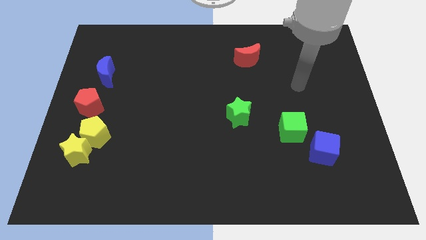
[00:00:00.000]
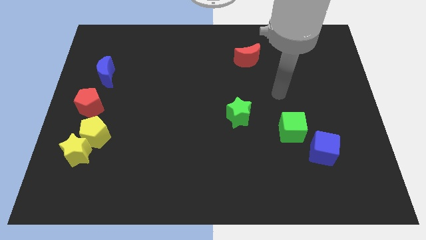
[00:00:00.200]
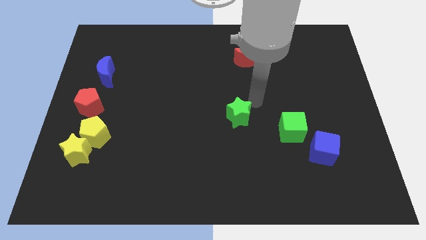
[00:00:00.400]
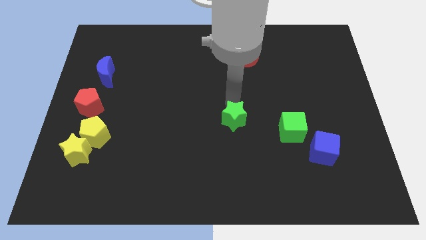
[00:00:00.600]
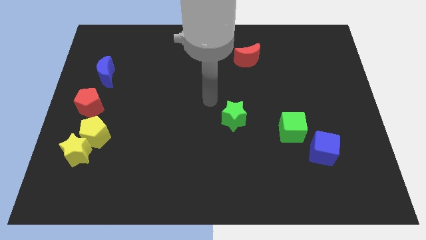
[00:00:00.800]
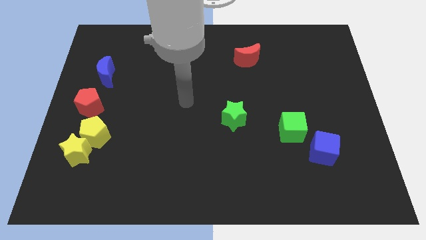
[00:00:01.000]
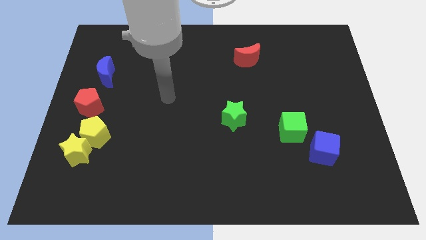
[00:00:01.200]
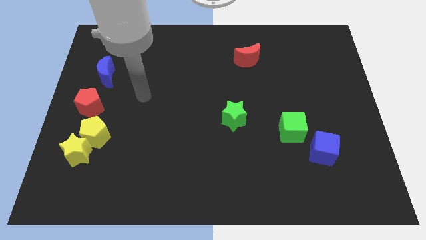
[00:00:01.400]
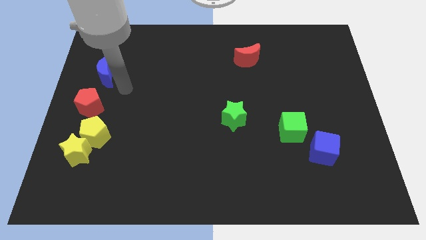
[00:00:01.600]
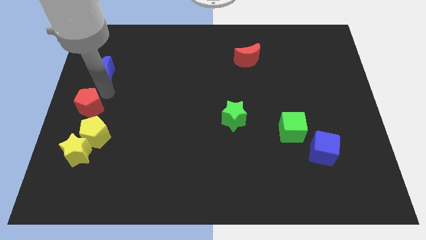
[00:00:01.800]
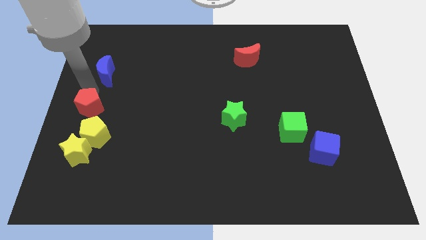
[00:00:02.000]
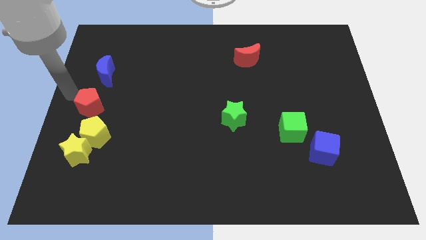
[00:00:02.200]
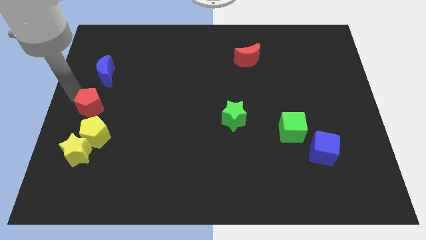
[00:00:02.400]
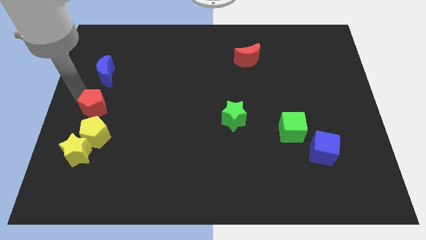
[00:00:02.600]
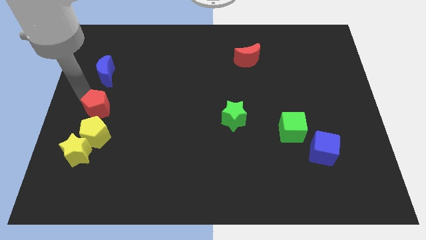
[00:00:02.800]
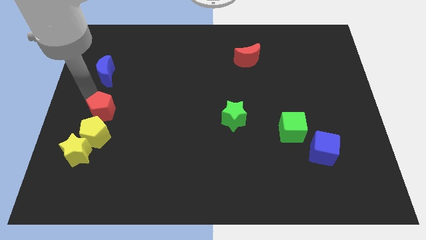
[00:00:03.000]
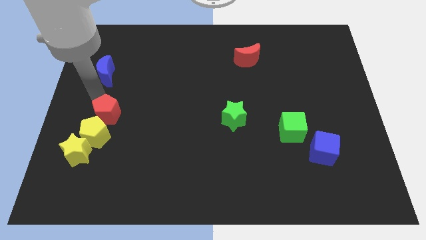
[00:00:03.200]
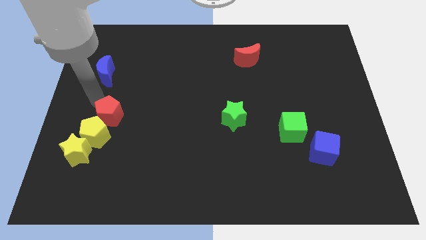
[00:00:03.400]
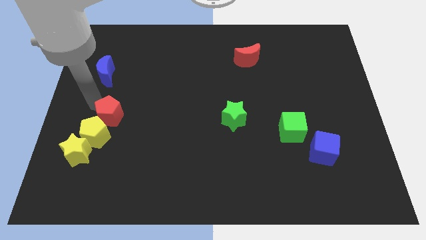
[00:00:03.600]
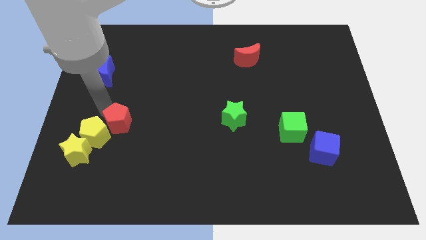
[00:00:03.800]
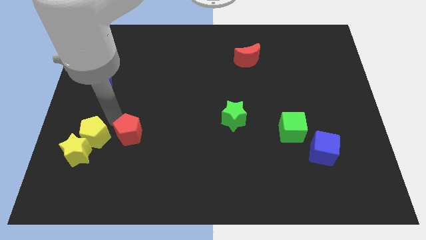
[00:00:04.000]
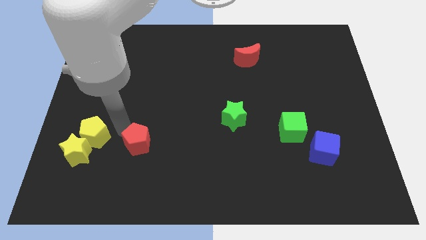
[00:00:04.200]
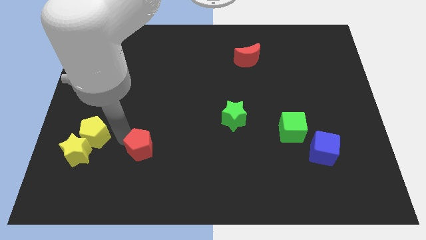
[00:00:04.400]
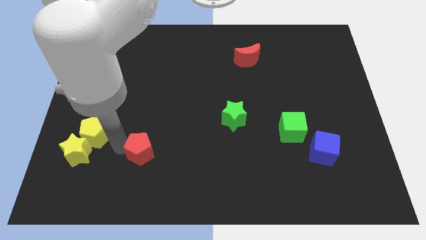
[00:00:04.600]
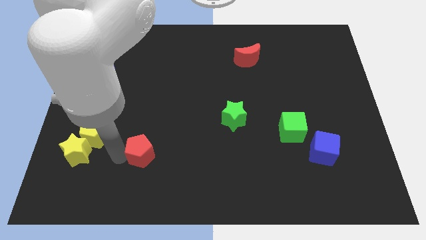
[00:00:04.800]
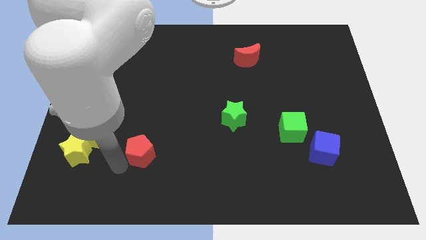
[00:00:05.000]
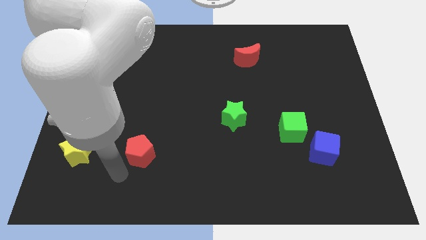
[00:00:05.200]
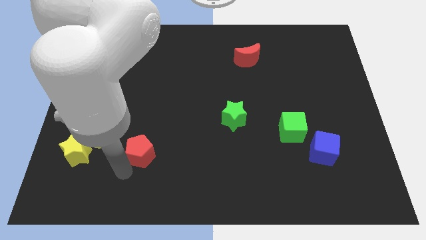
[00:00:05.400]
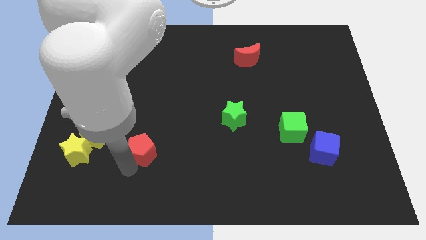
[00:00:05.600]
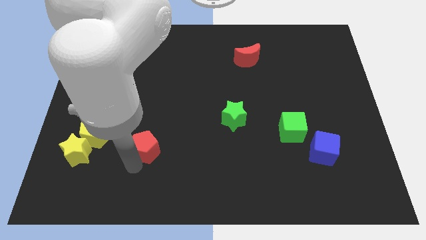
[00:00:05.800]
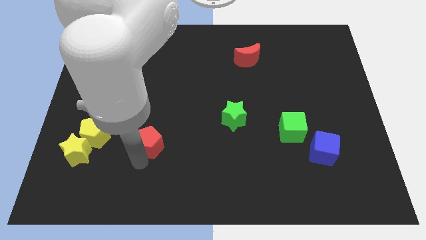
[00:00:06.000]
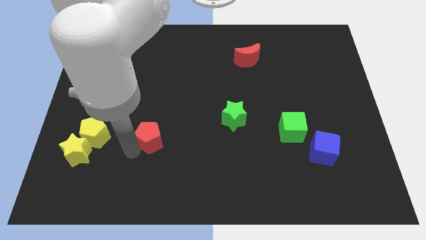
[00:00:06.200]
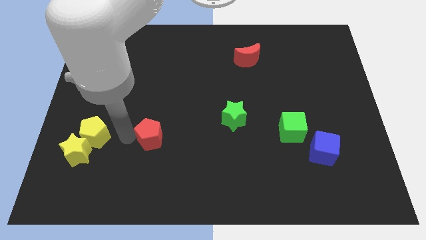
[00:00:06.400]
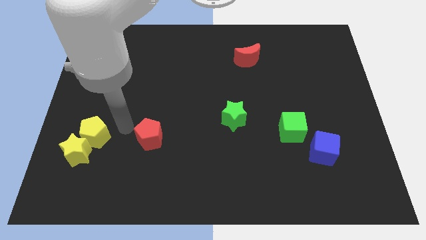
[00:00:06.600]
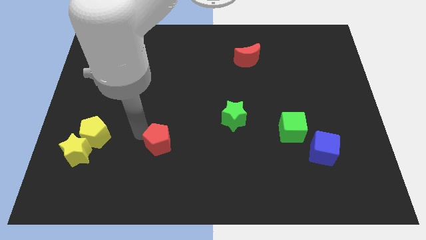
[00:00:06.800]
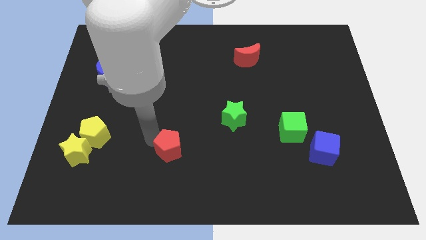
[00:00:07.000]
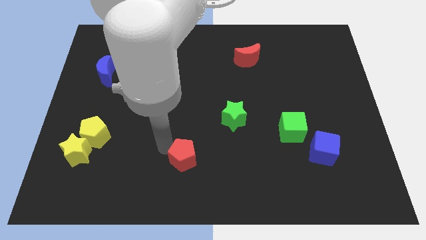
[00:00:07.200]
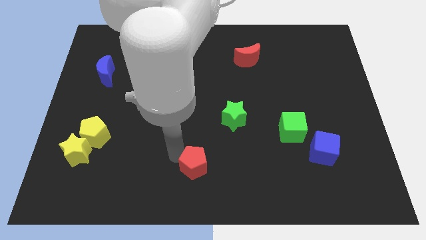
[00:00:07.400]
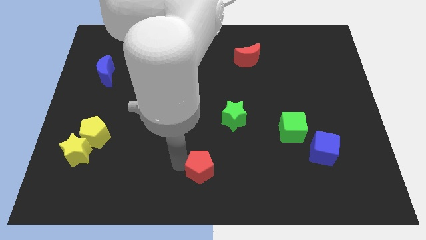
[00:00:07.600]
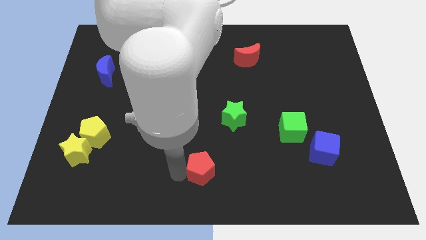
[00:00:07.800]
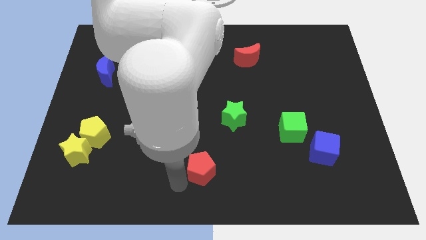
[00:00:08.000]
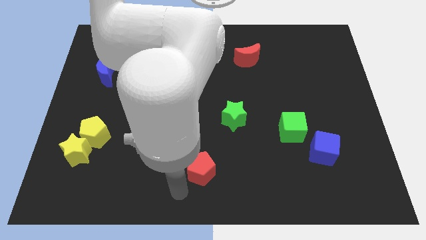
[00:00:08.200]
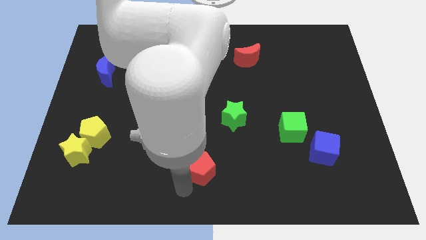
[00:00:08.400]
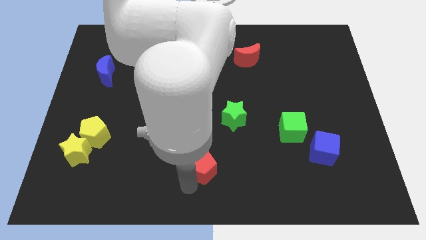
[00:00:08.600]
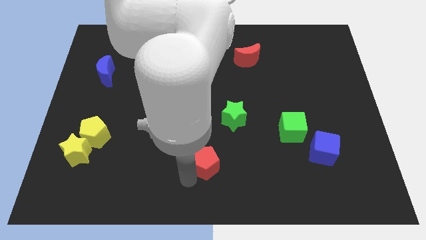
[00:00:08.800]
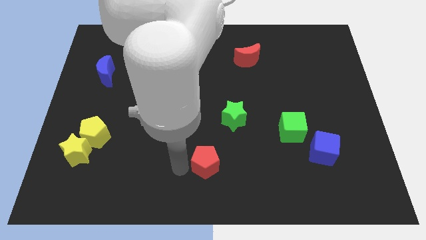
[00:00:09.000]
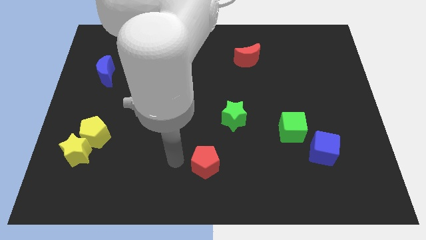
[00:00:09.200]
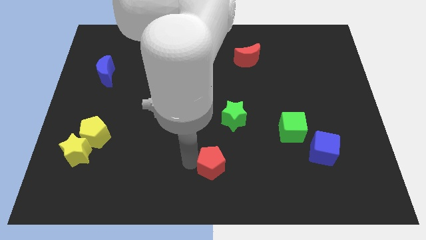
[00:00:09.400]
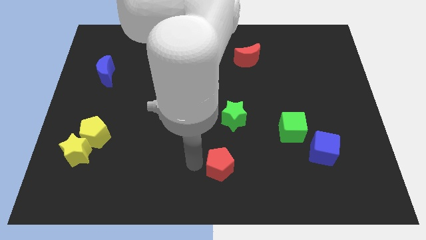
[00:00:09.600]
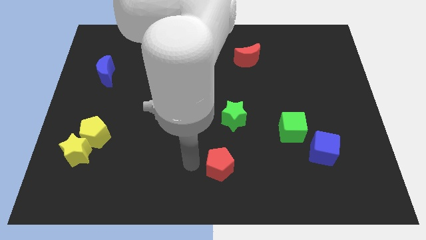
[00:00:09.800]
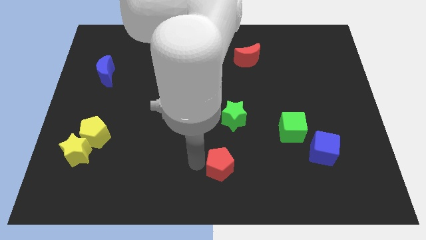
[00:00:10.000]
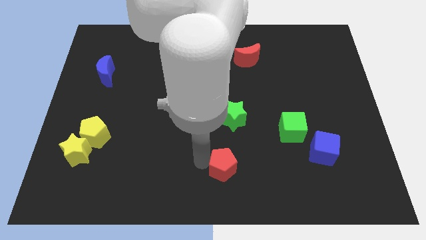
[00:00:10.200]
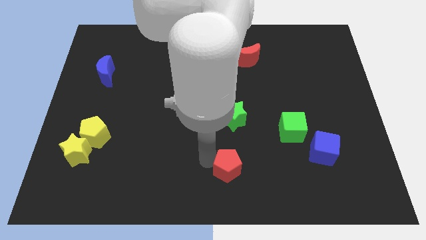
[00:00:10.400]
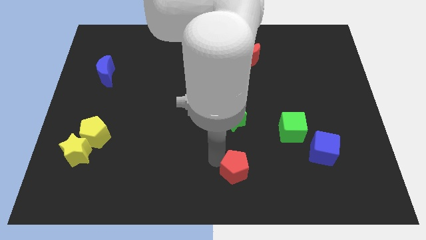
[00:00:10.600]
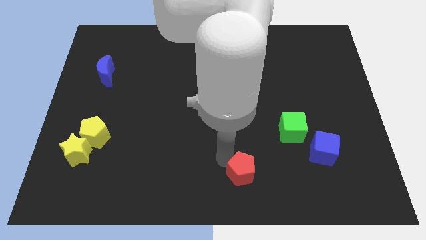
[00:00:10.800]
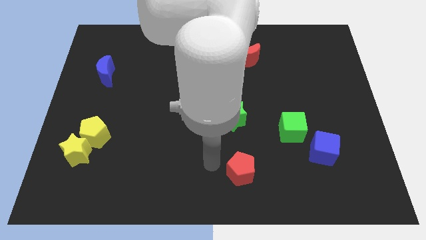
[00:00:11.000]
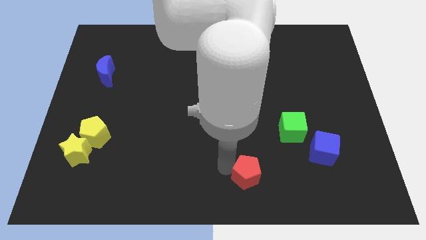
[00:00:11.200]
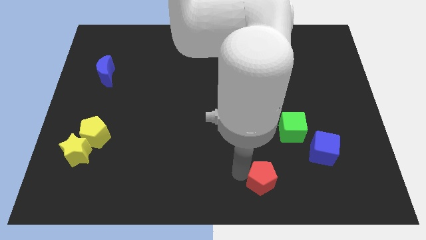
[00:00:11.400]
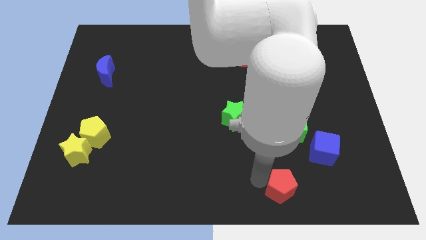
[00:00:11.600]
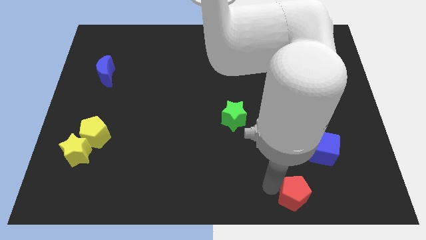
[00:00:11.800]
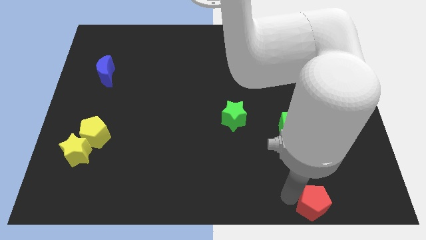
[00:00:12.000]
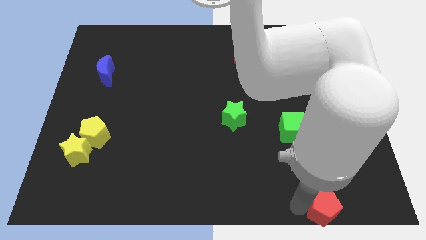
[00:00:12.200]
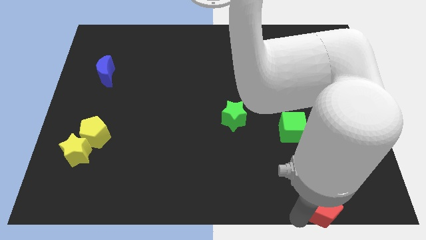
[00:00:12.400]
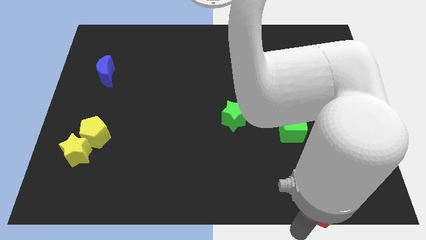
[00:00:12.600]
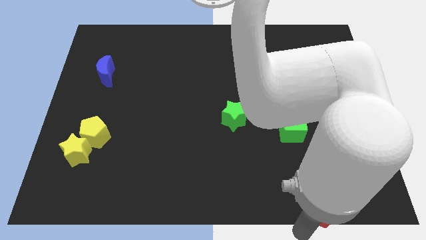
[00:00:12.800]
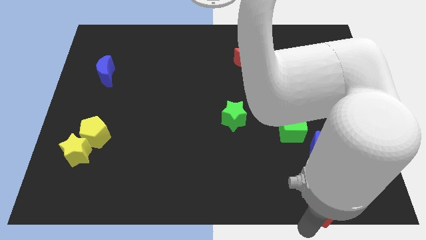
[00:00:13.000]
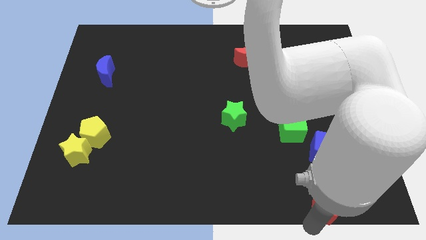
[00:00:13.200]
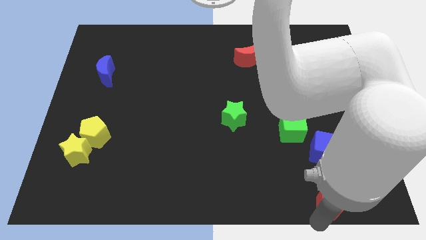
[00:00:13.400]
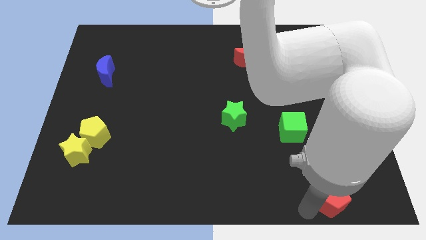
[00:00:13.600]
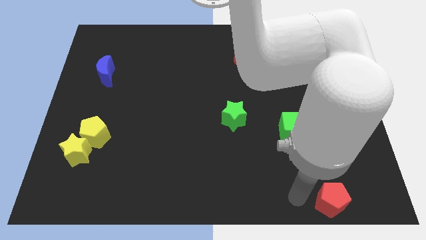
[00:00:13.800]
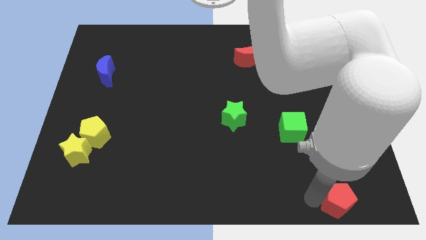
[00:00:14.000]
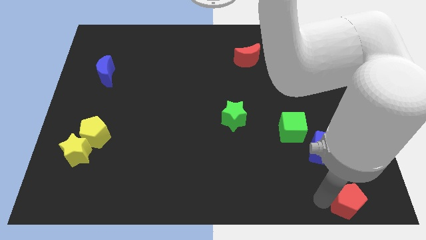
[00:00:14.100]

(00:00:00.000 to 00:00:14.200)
put the red pentagon to the bottom right
